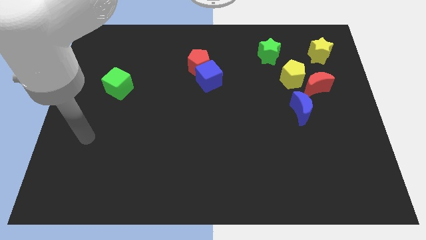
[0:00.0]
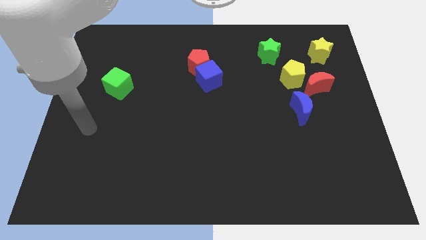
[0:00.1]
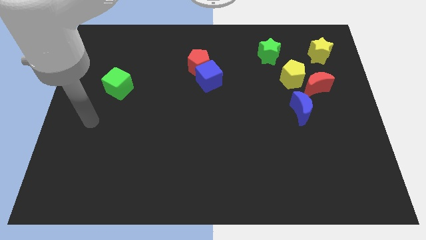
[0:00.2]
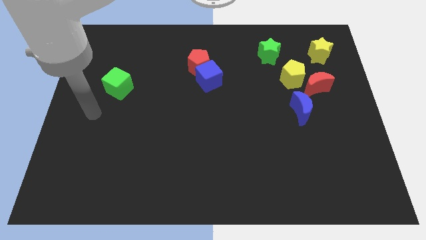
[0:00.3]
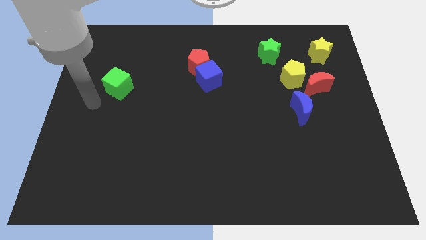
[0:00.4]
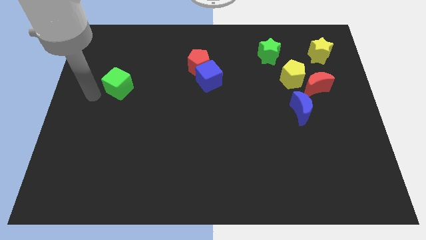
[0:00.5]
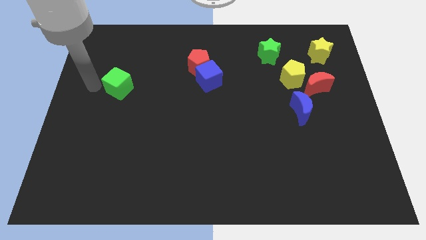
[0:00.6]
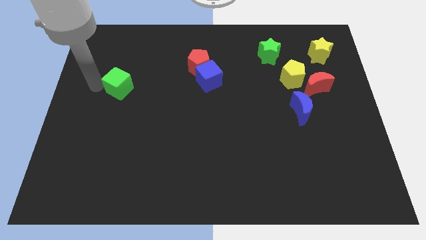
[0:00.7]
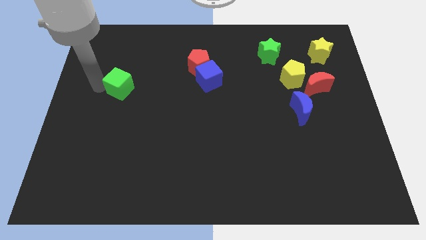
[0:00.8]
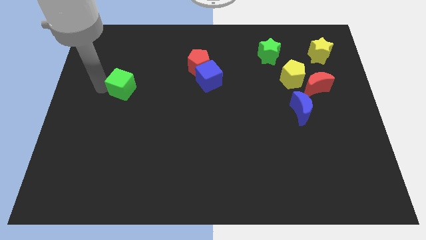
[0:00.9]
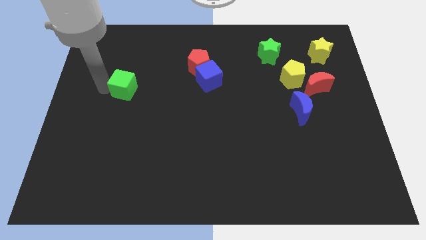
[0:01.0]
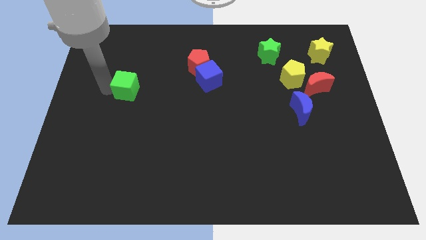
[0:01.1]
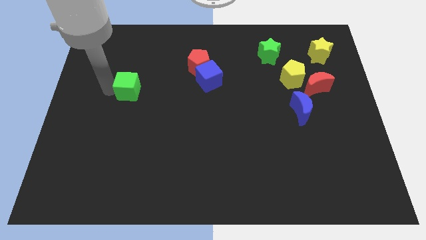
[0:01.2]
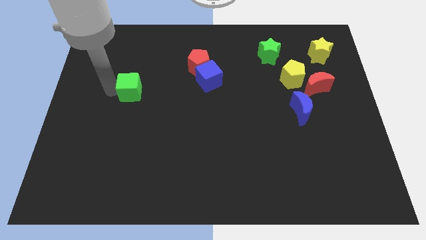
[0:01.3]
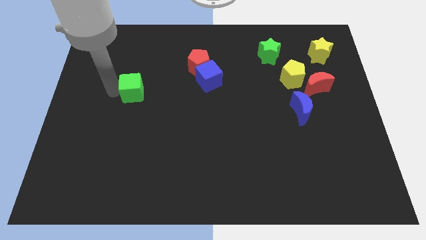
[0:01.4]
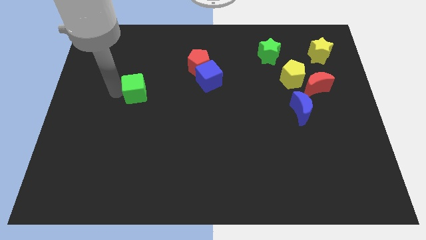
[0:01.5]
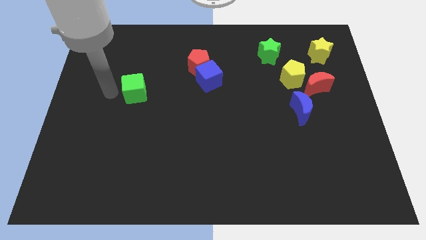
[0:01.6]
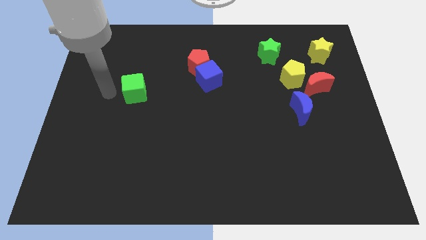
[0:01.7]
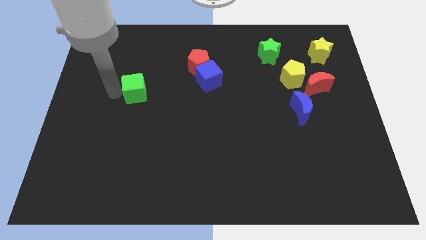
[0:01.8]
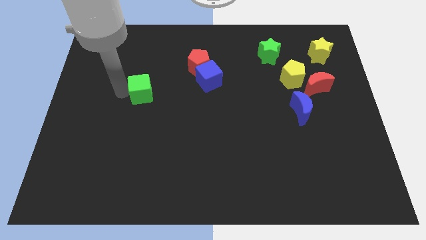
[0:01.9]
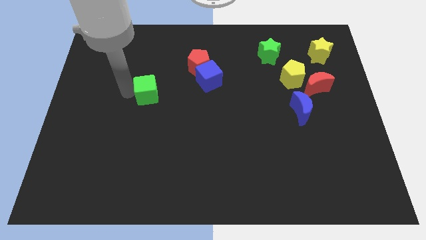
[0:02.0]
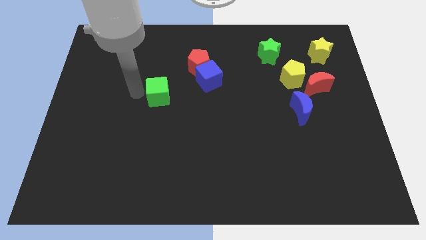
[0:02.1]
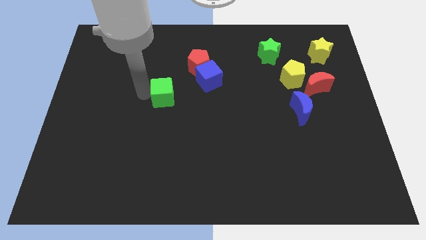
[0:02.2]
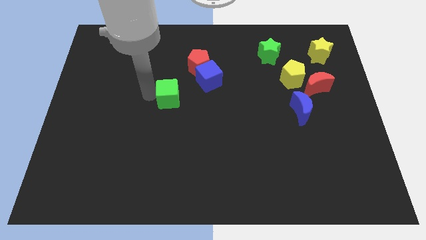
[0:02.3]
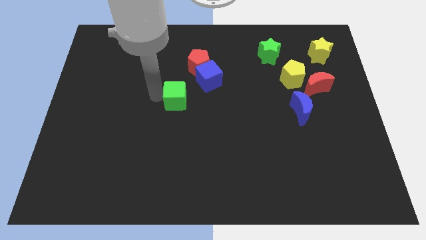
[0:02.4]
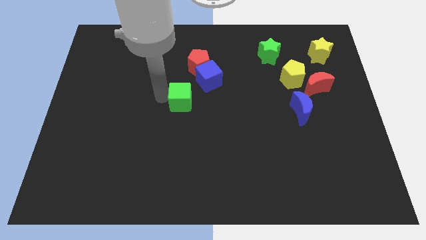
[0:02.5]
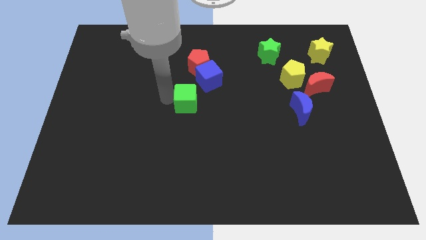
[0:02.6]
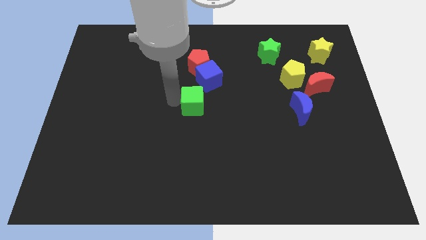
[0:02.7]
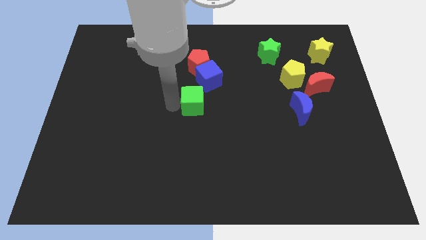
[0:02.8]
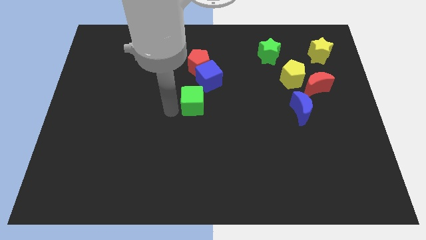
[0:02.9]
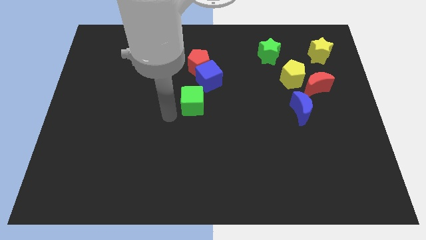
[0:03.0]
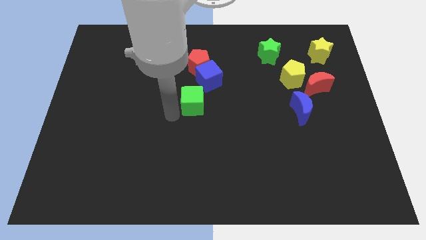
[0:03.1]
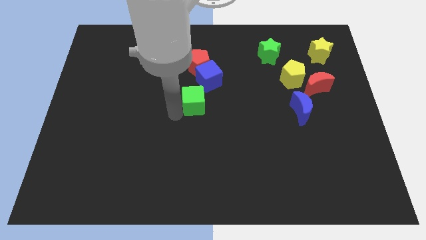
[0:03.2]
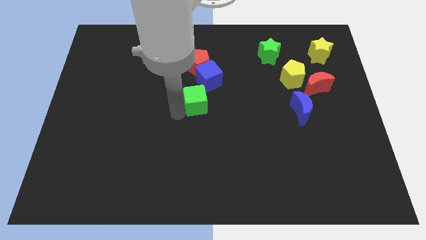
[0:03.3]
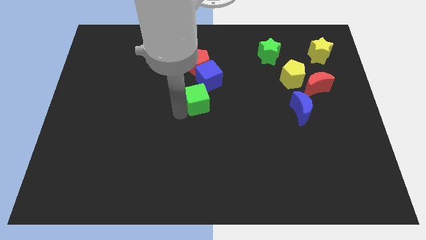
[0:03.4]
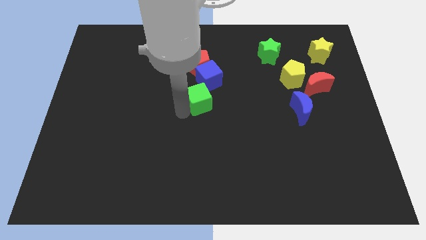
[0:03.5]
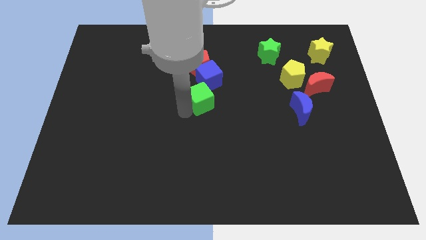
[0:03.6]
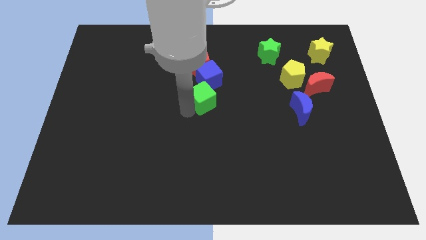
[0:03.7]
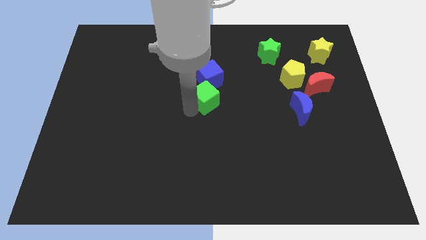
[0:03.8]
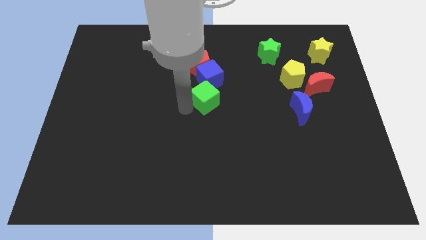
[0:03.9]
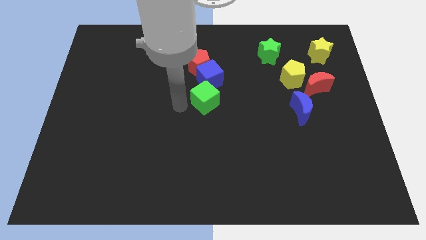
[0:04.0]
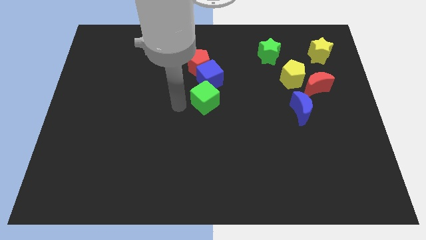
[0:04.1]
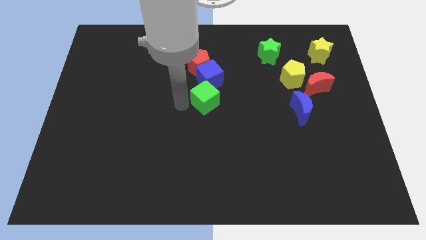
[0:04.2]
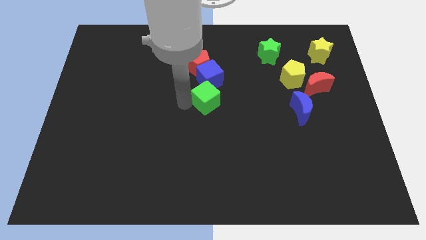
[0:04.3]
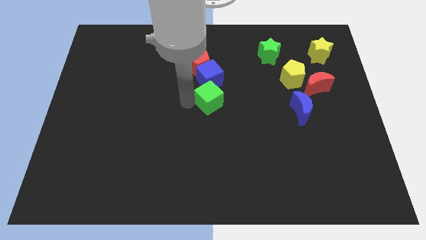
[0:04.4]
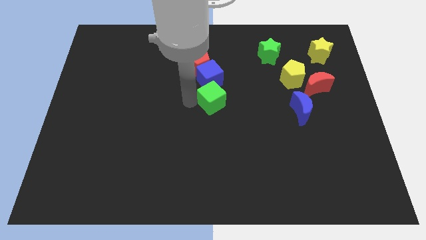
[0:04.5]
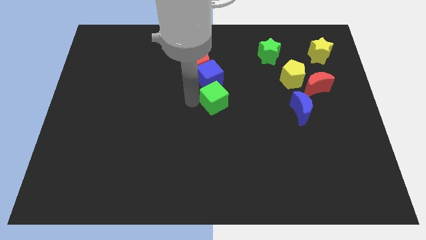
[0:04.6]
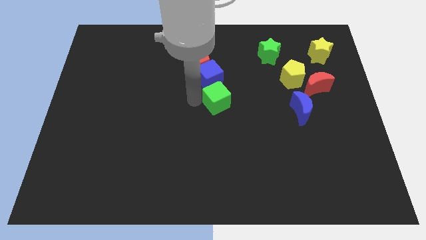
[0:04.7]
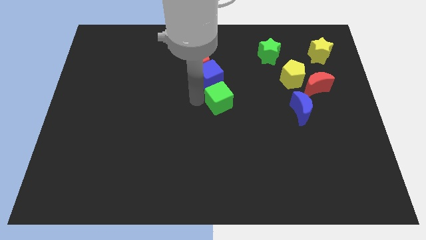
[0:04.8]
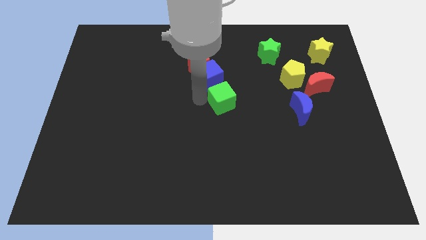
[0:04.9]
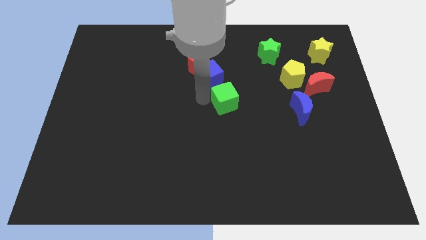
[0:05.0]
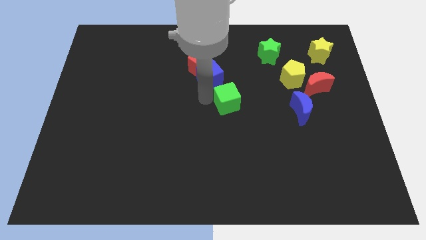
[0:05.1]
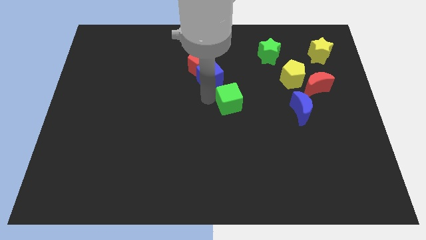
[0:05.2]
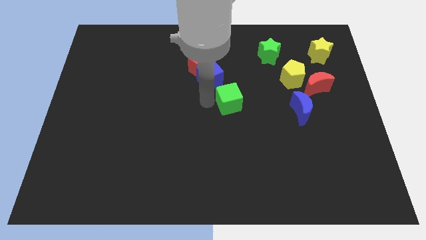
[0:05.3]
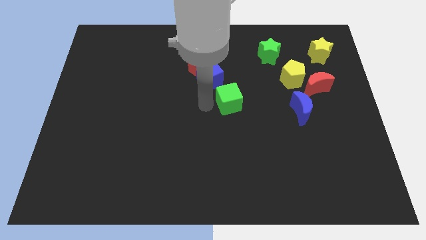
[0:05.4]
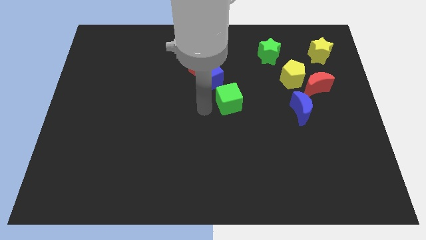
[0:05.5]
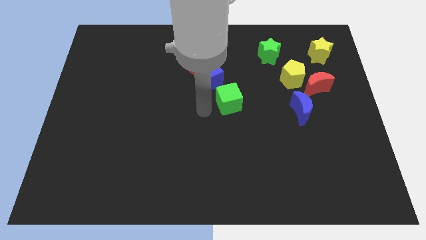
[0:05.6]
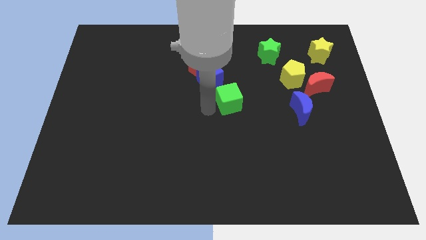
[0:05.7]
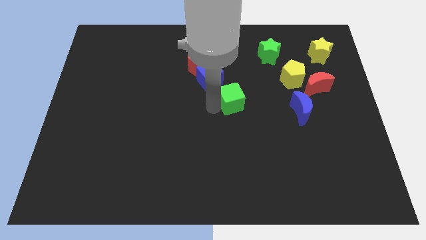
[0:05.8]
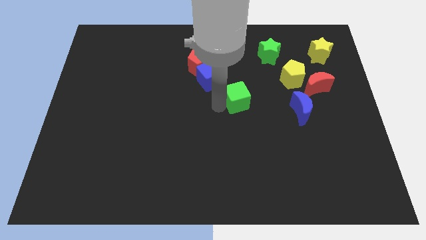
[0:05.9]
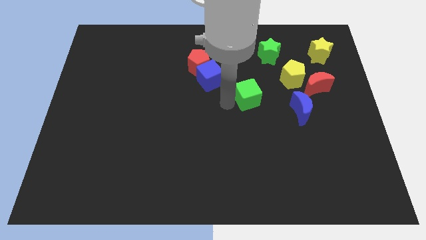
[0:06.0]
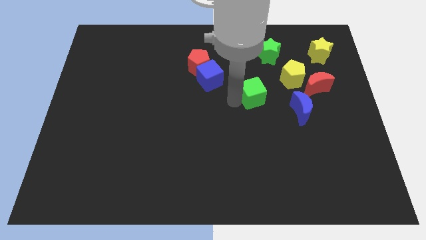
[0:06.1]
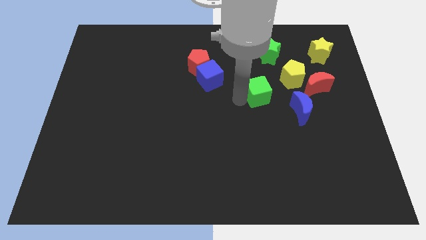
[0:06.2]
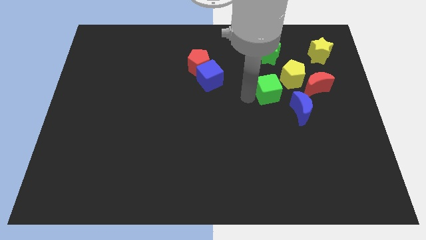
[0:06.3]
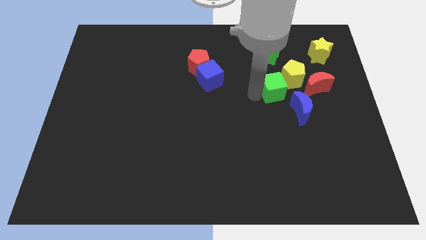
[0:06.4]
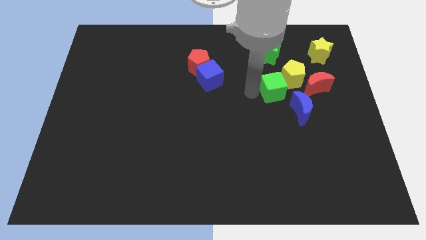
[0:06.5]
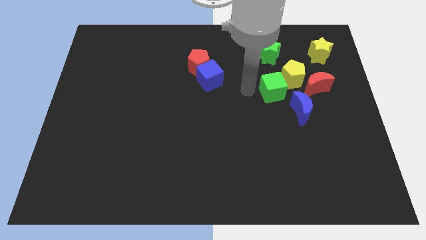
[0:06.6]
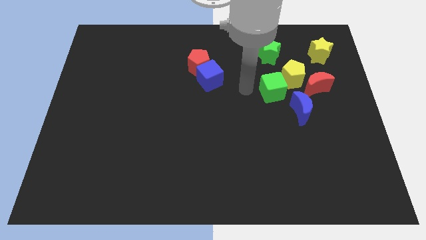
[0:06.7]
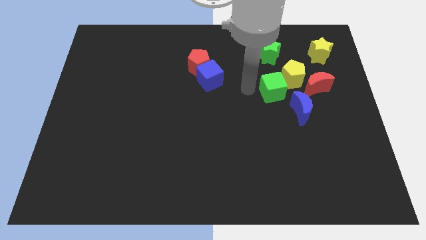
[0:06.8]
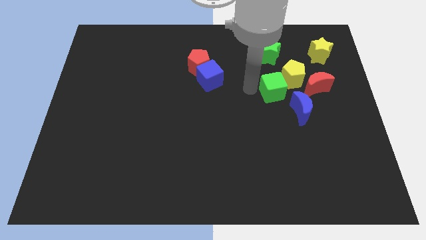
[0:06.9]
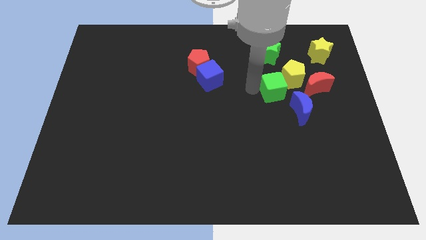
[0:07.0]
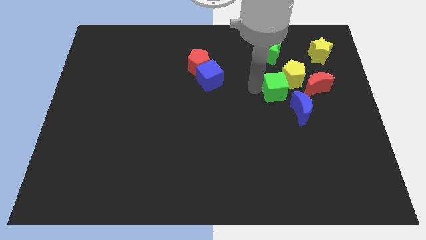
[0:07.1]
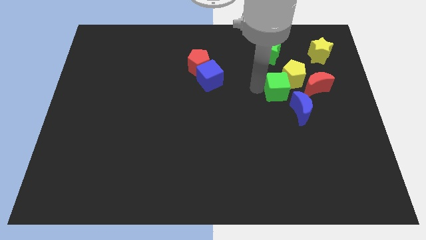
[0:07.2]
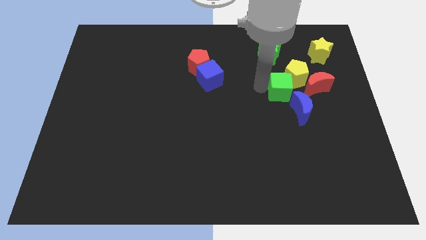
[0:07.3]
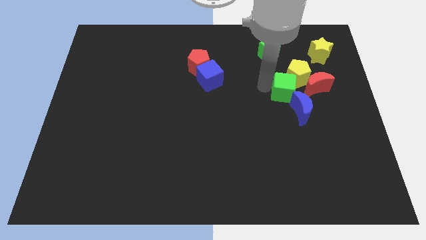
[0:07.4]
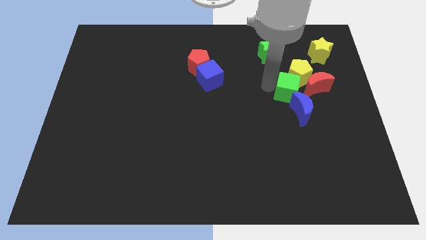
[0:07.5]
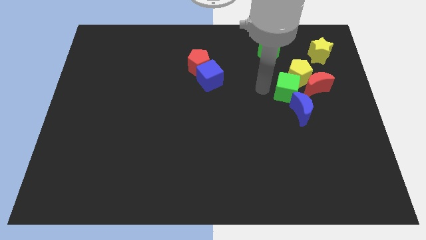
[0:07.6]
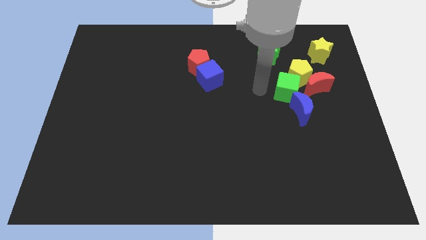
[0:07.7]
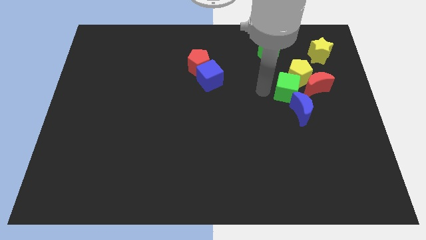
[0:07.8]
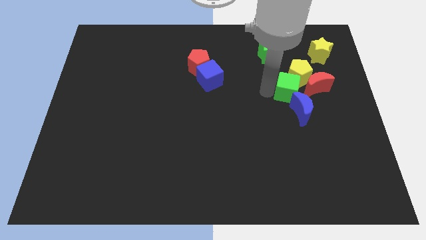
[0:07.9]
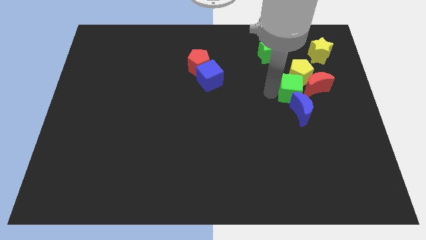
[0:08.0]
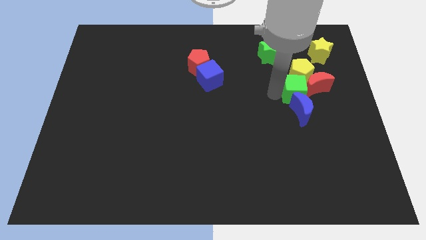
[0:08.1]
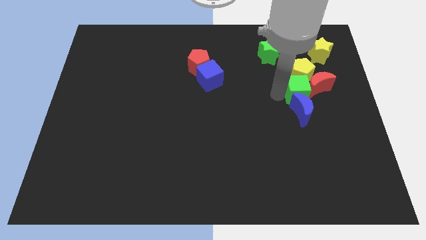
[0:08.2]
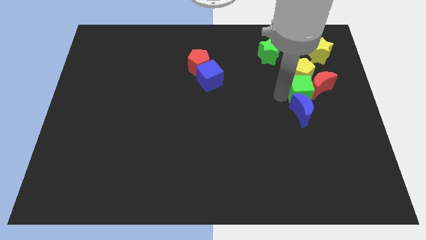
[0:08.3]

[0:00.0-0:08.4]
slide the green cube to the bottom right side of the yellow pentagon
